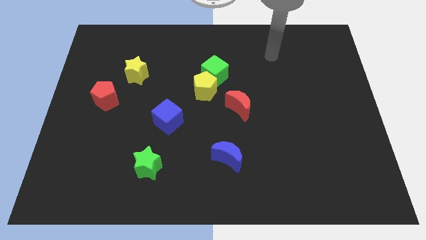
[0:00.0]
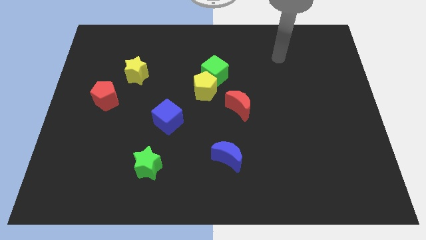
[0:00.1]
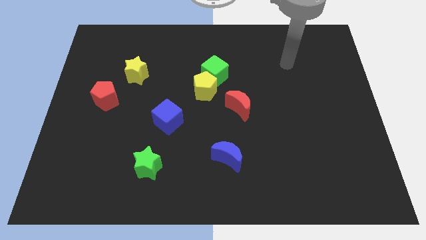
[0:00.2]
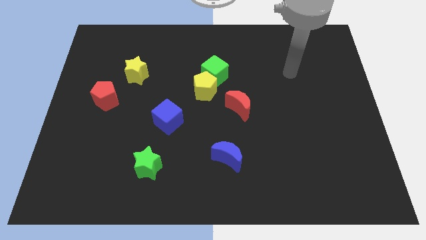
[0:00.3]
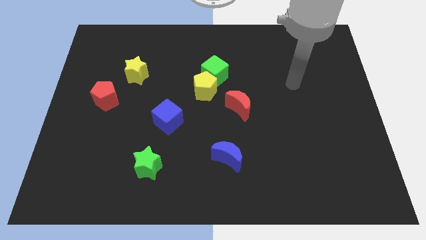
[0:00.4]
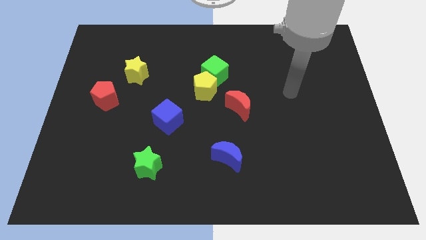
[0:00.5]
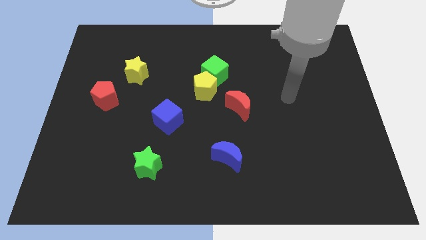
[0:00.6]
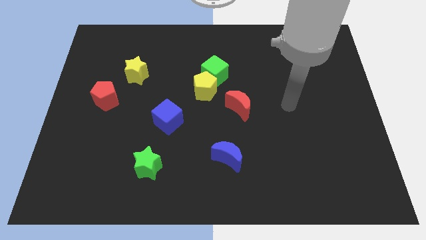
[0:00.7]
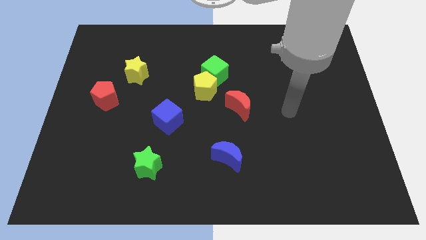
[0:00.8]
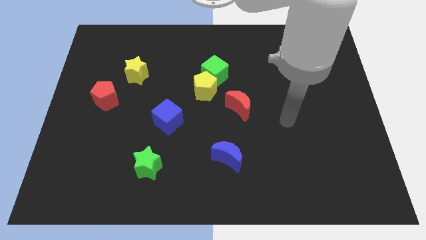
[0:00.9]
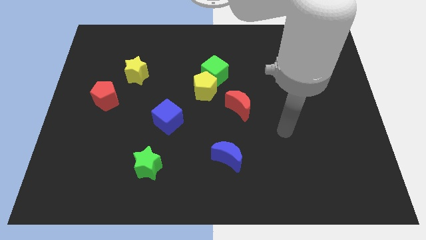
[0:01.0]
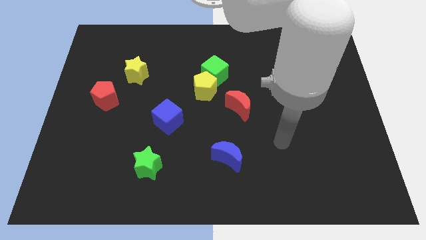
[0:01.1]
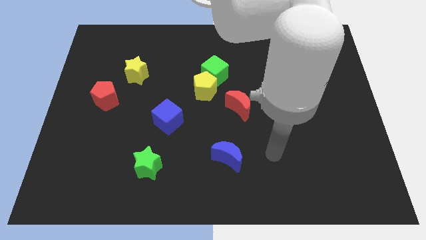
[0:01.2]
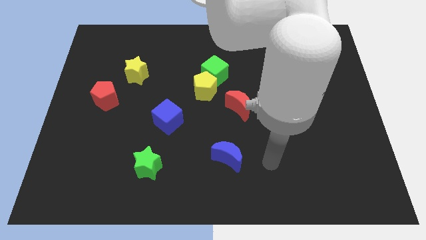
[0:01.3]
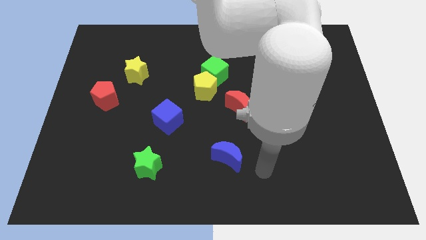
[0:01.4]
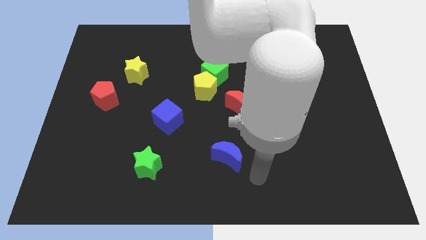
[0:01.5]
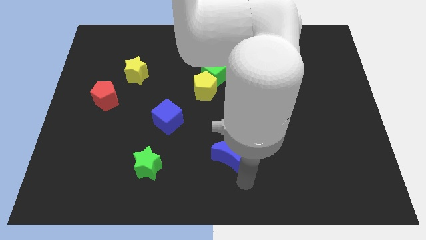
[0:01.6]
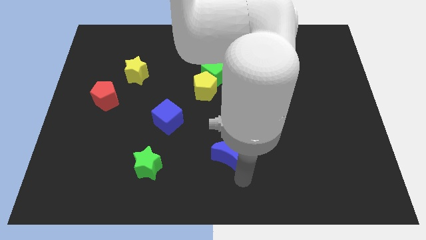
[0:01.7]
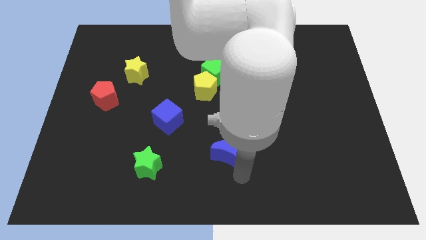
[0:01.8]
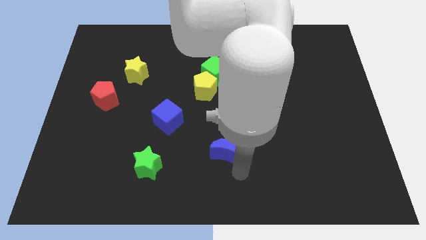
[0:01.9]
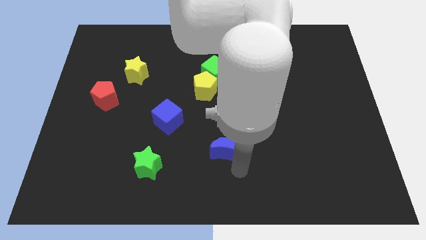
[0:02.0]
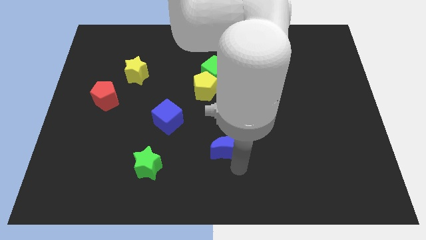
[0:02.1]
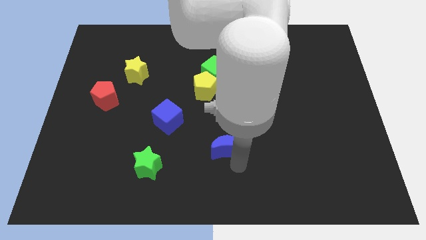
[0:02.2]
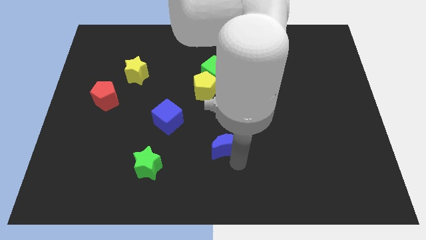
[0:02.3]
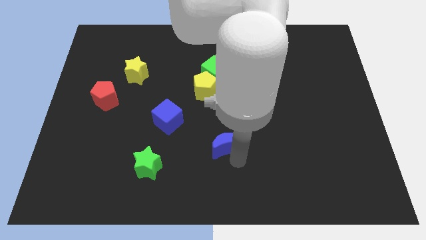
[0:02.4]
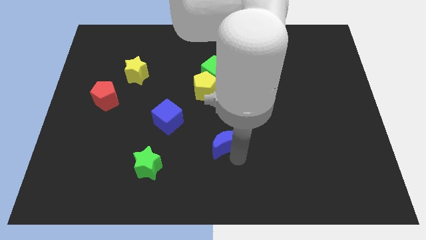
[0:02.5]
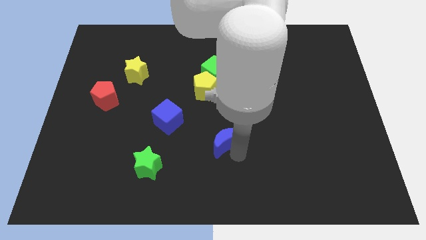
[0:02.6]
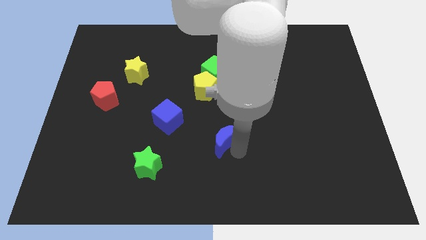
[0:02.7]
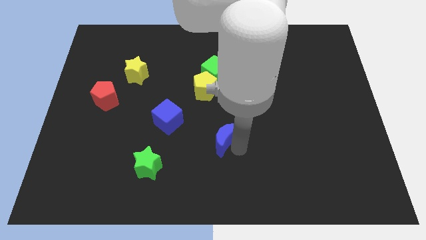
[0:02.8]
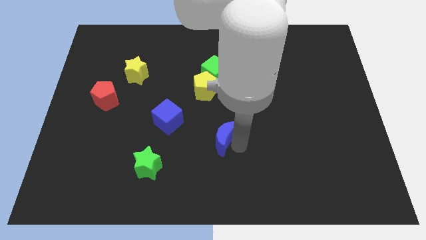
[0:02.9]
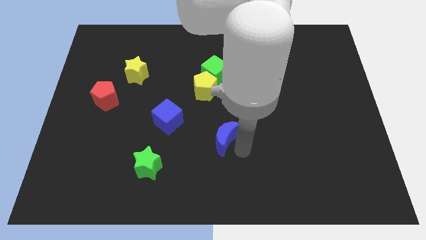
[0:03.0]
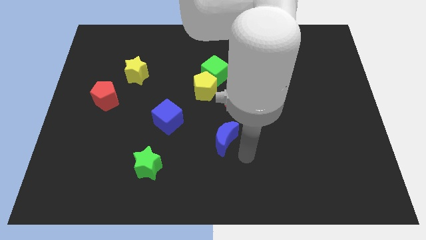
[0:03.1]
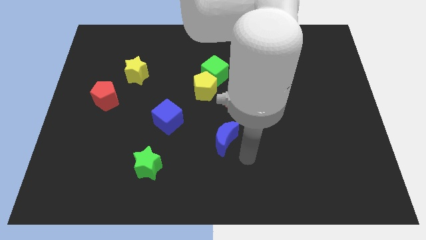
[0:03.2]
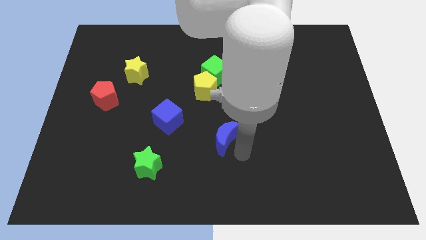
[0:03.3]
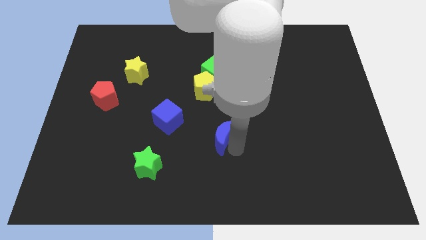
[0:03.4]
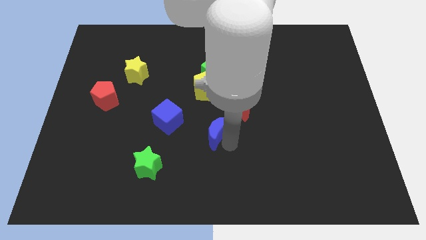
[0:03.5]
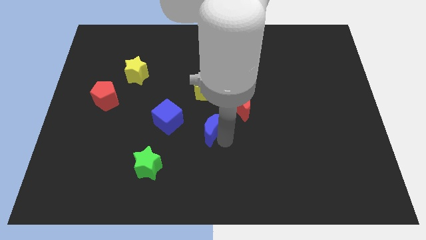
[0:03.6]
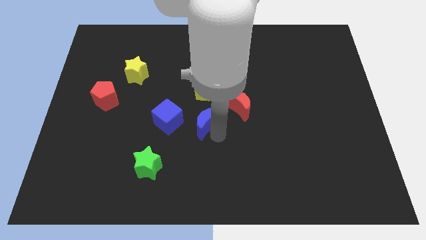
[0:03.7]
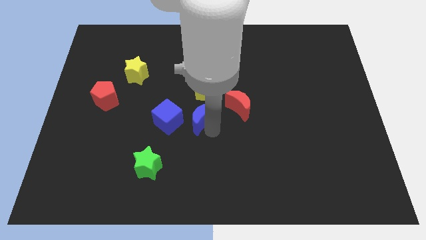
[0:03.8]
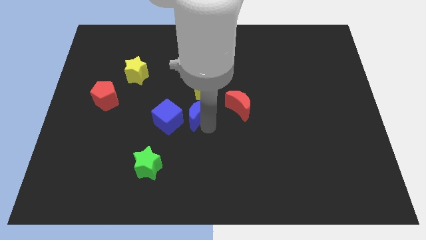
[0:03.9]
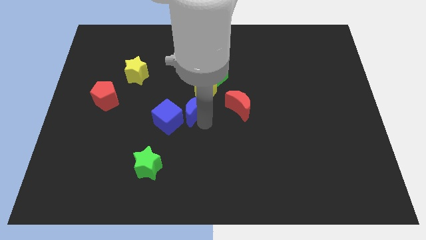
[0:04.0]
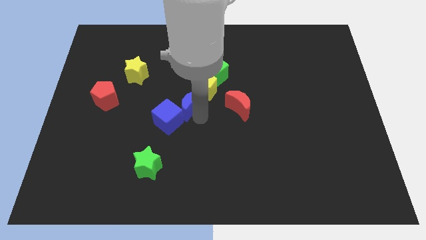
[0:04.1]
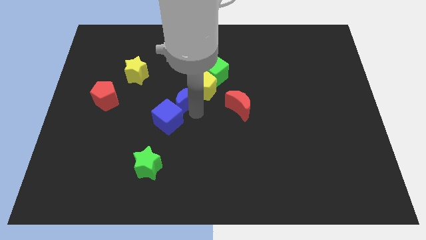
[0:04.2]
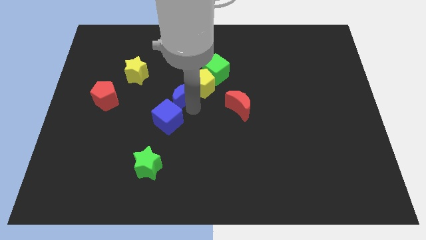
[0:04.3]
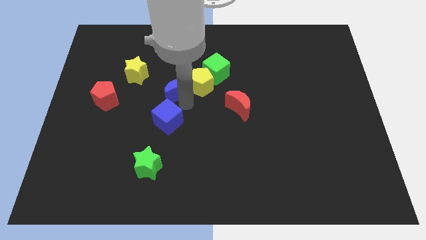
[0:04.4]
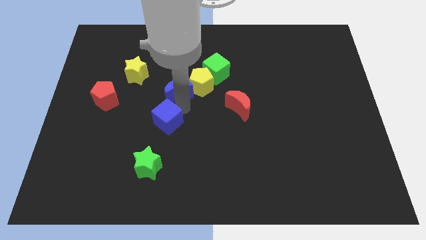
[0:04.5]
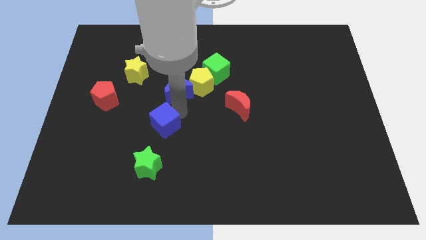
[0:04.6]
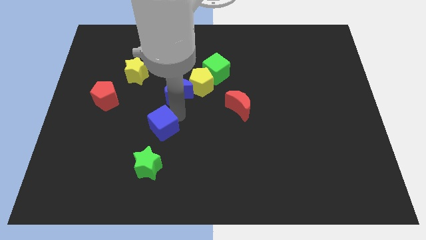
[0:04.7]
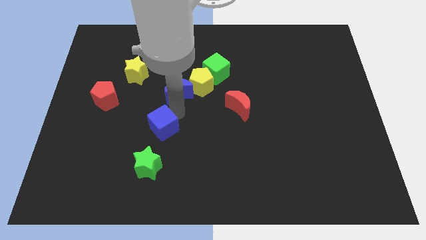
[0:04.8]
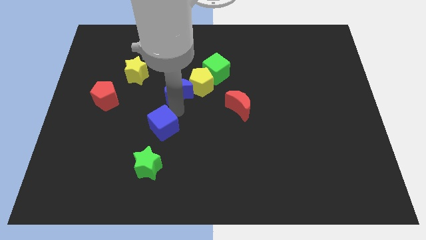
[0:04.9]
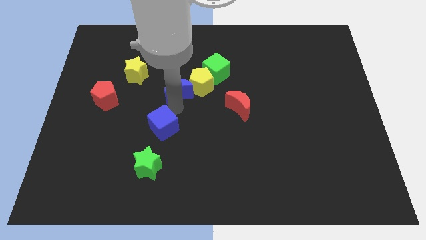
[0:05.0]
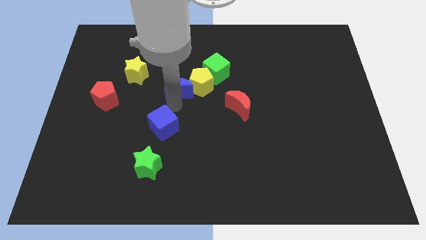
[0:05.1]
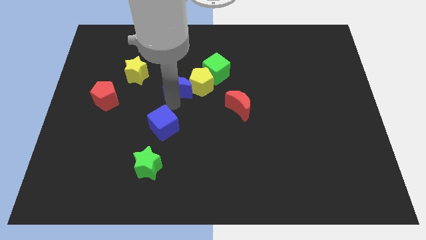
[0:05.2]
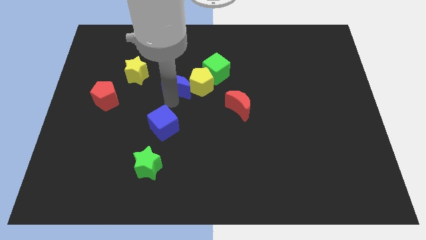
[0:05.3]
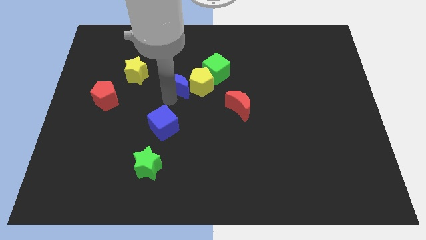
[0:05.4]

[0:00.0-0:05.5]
put the blue moon just right of the yellow star

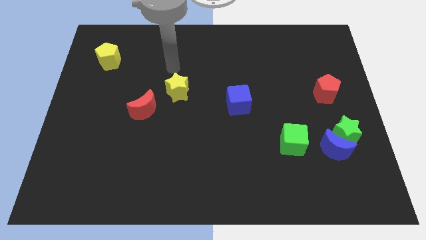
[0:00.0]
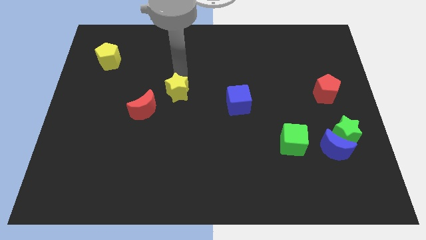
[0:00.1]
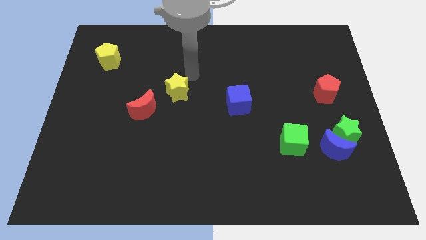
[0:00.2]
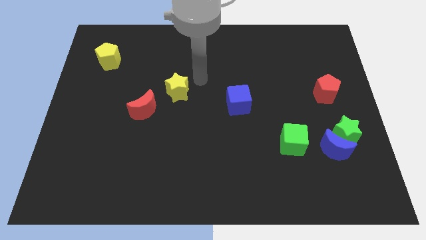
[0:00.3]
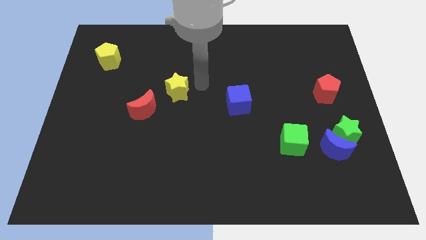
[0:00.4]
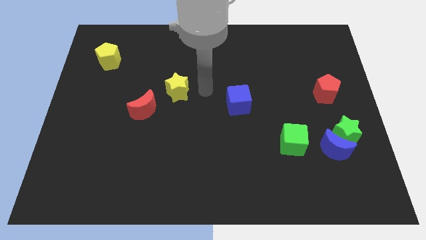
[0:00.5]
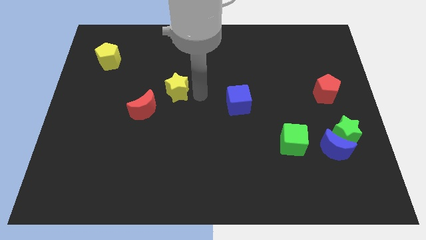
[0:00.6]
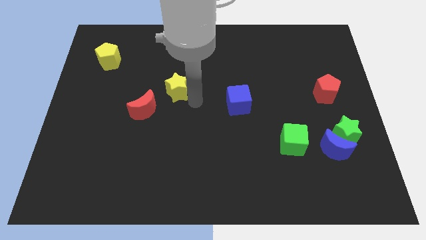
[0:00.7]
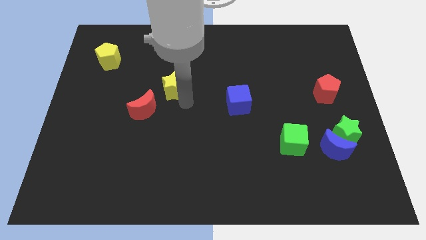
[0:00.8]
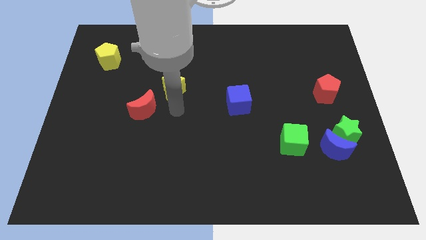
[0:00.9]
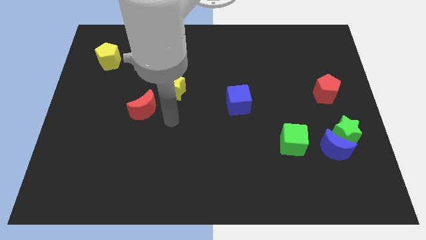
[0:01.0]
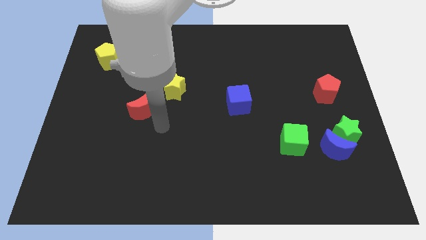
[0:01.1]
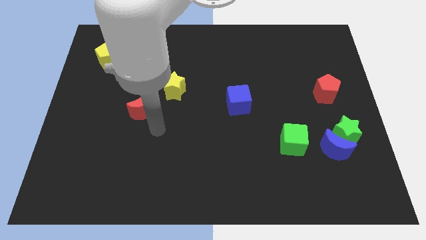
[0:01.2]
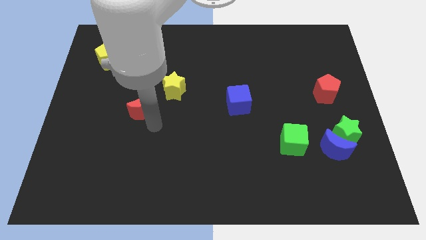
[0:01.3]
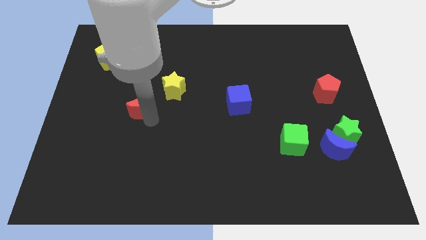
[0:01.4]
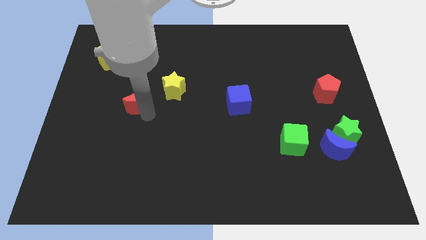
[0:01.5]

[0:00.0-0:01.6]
slide the red moon left of the yellow star
